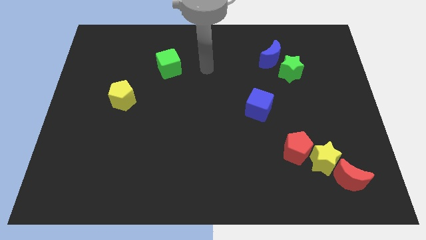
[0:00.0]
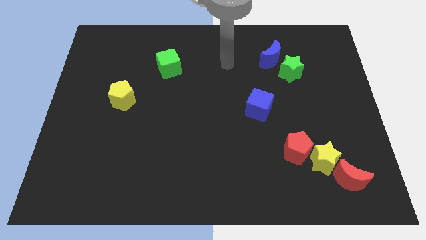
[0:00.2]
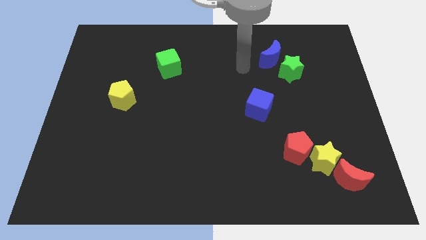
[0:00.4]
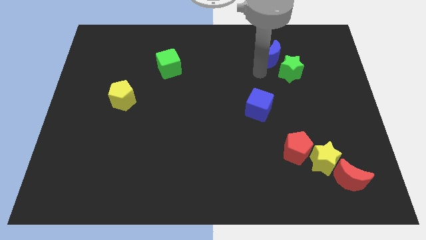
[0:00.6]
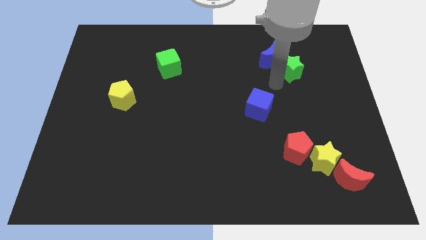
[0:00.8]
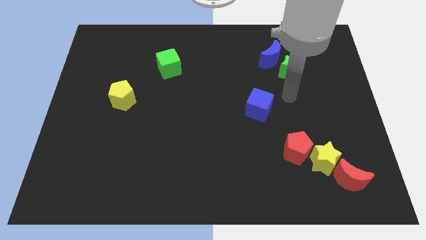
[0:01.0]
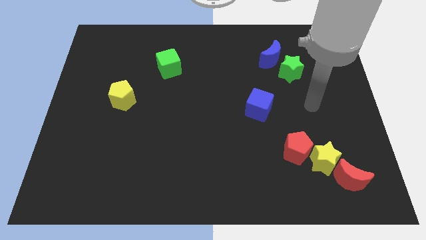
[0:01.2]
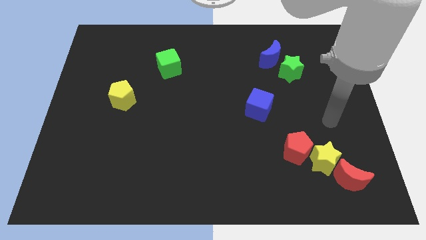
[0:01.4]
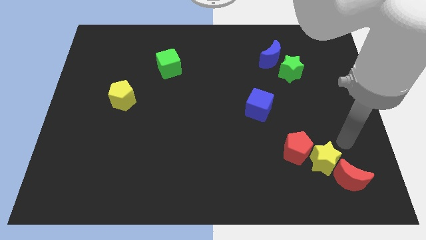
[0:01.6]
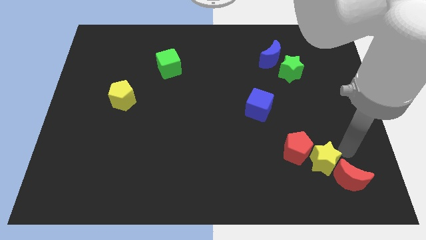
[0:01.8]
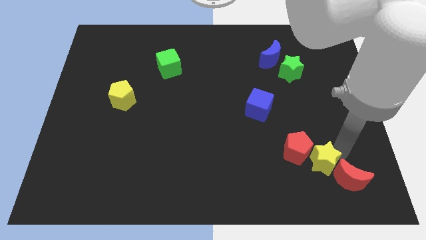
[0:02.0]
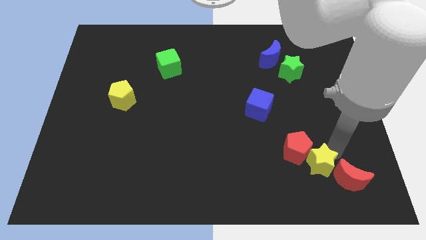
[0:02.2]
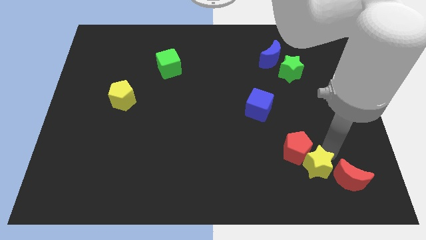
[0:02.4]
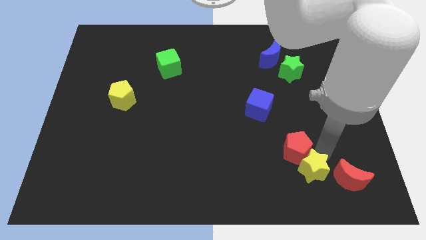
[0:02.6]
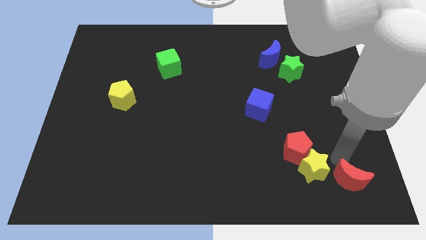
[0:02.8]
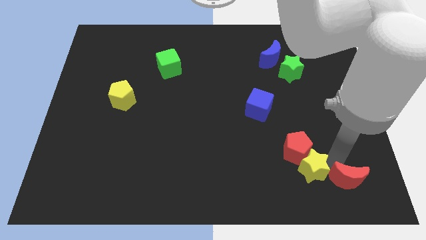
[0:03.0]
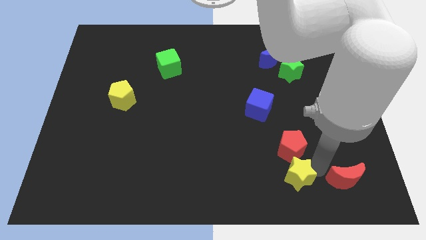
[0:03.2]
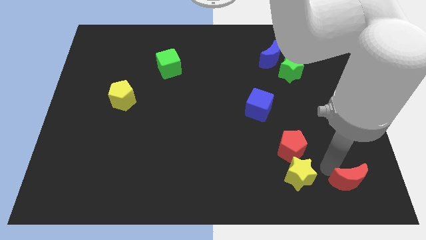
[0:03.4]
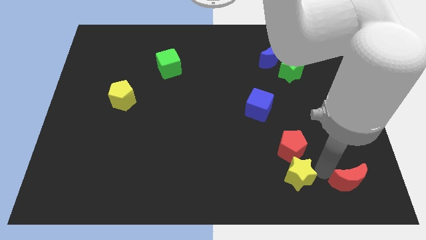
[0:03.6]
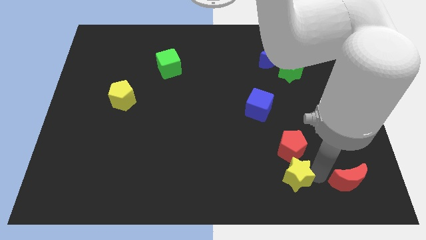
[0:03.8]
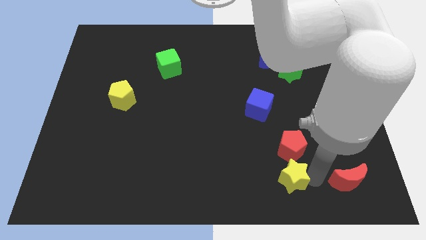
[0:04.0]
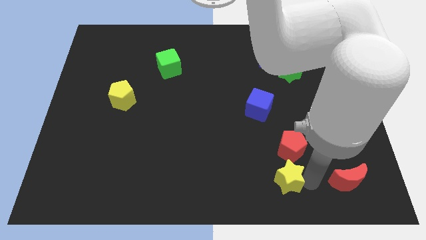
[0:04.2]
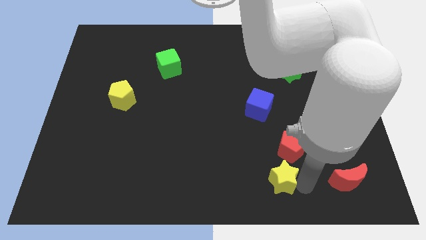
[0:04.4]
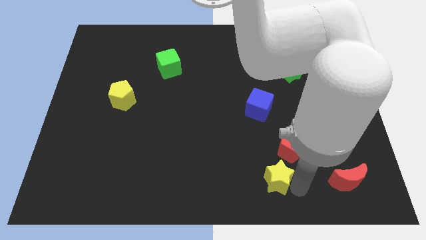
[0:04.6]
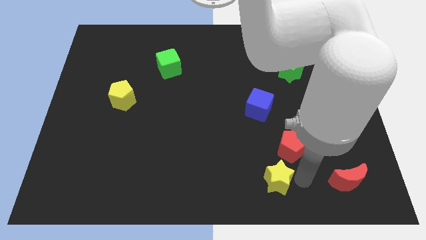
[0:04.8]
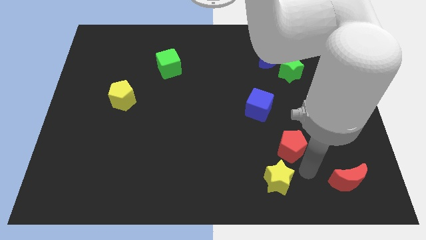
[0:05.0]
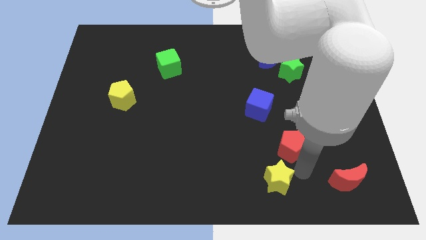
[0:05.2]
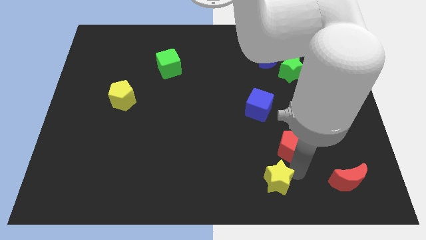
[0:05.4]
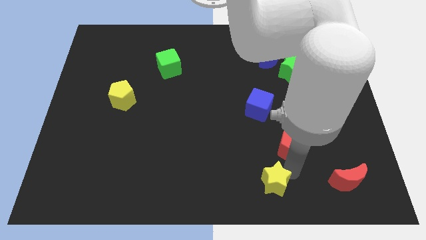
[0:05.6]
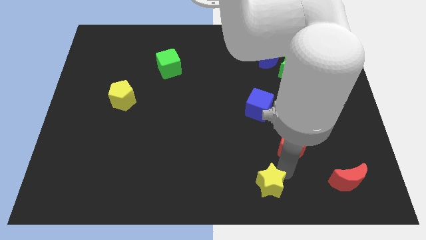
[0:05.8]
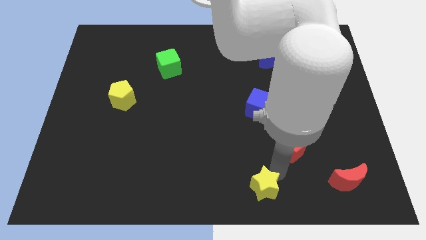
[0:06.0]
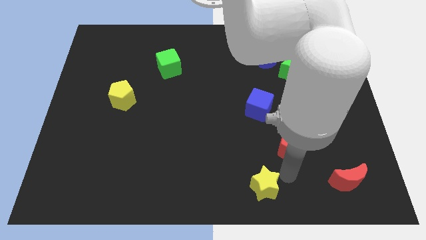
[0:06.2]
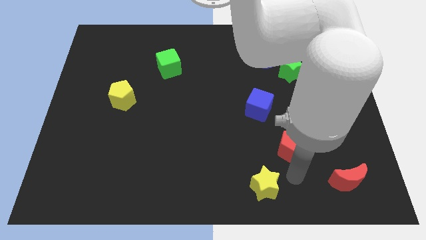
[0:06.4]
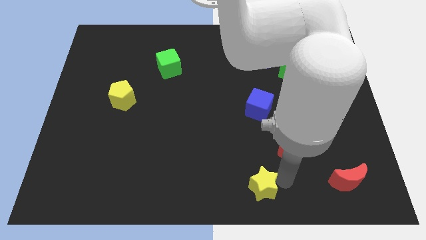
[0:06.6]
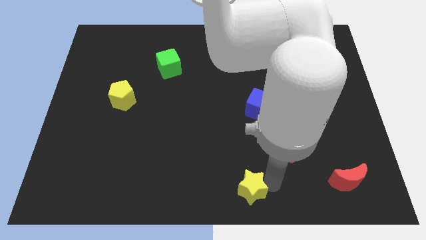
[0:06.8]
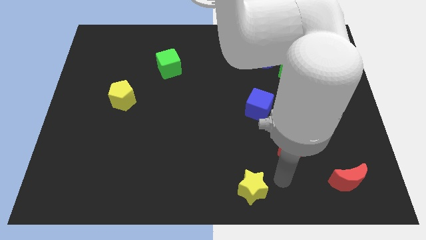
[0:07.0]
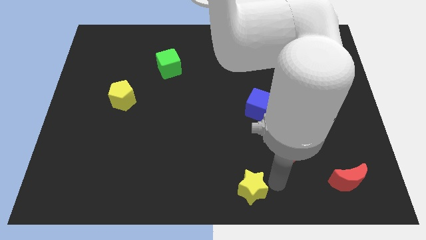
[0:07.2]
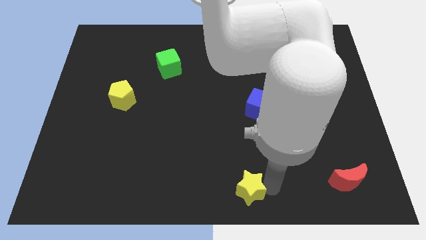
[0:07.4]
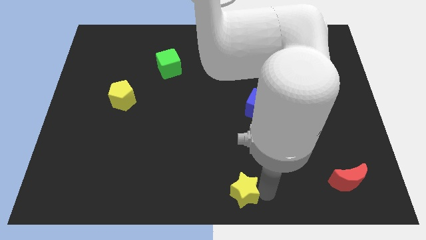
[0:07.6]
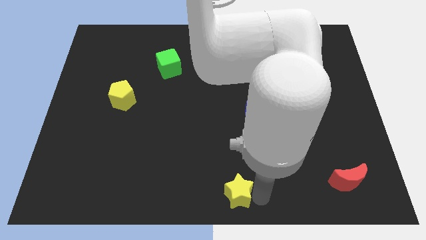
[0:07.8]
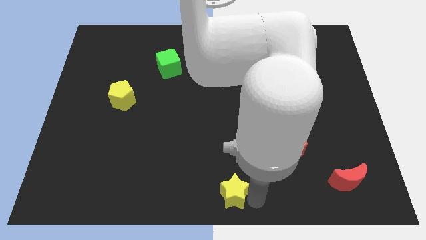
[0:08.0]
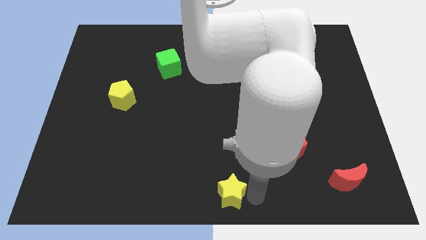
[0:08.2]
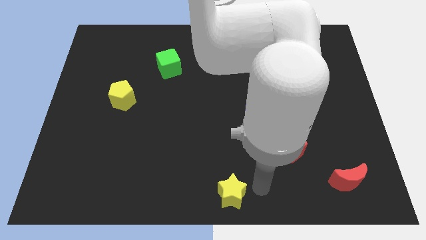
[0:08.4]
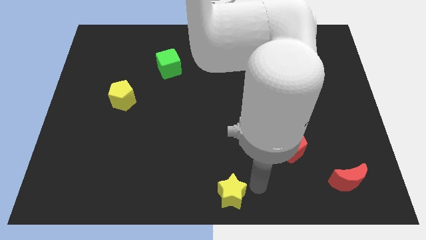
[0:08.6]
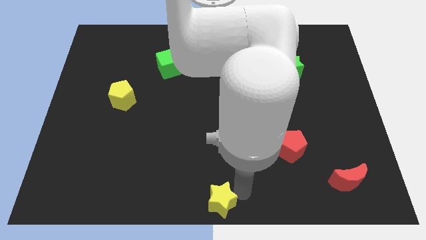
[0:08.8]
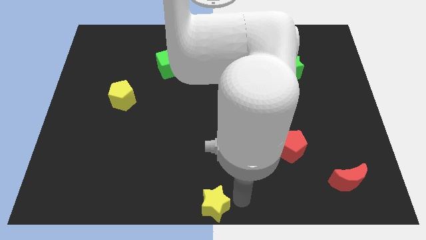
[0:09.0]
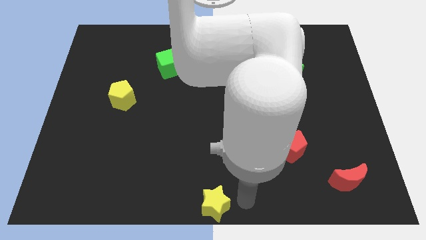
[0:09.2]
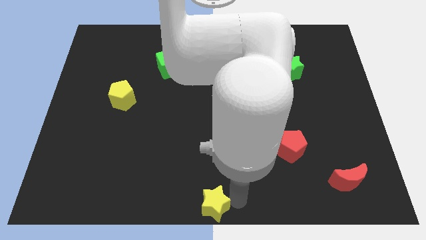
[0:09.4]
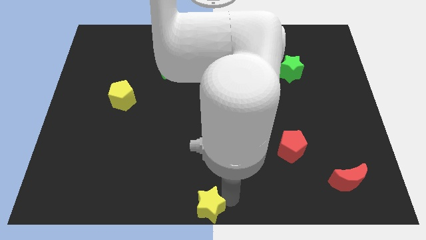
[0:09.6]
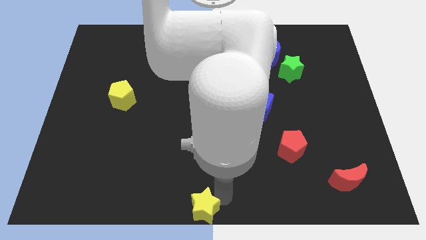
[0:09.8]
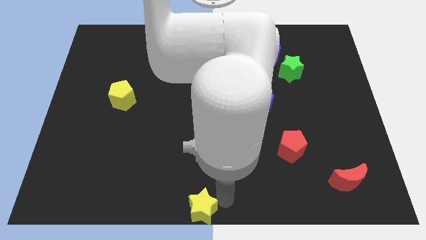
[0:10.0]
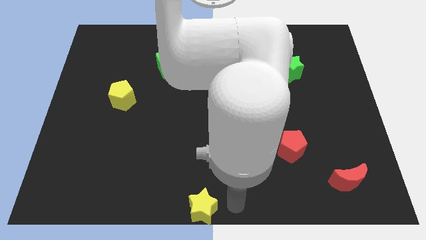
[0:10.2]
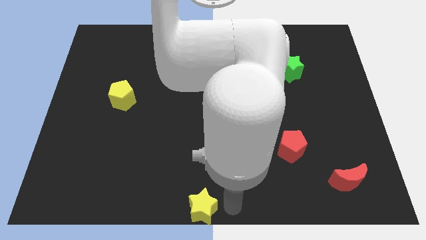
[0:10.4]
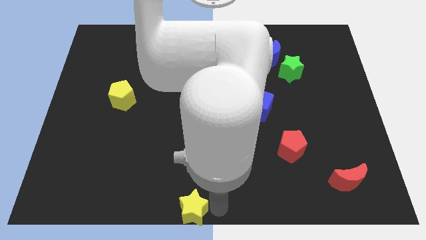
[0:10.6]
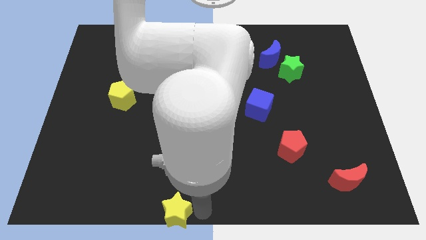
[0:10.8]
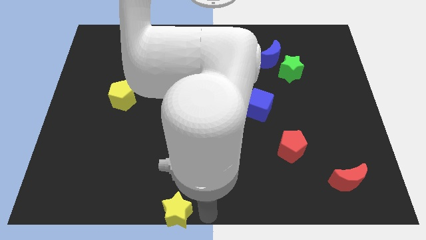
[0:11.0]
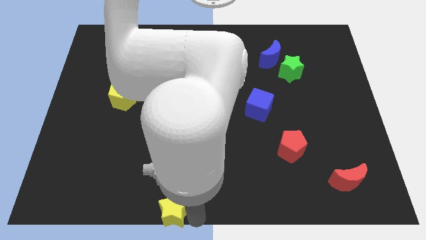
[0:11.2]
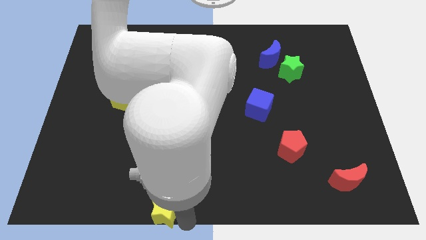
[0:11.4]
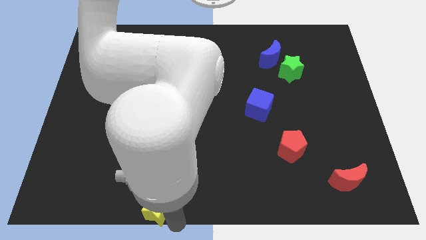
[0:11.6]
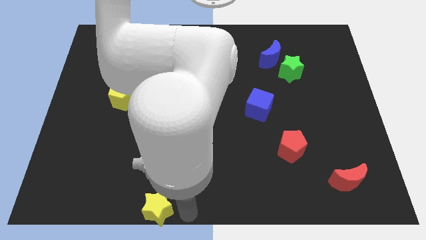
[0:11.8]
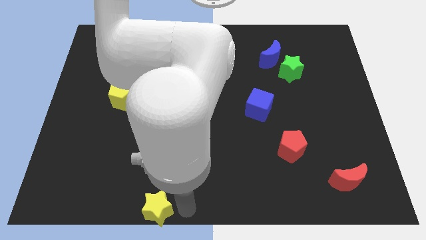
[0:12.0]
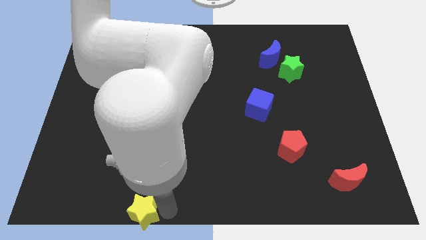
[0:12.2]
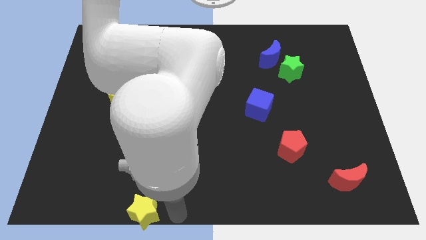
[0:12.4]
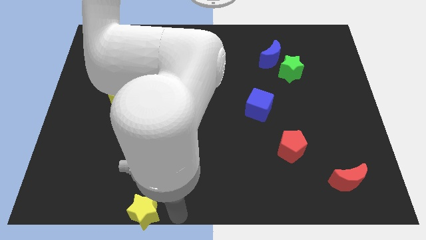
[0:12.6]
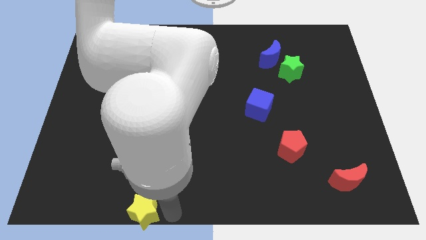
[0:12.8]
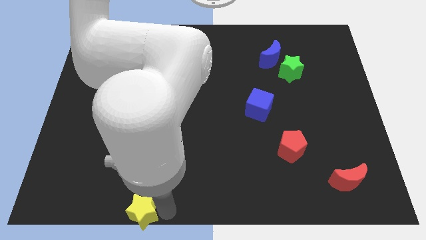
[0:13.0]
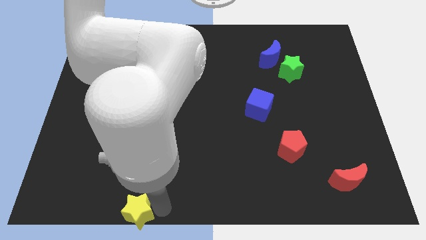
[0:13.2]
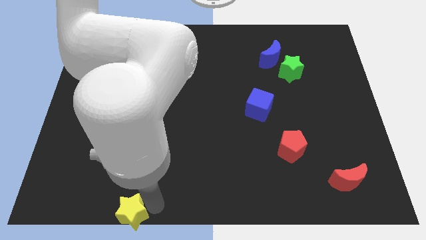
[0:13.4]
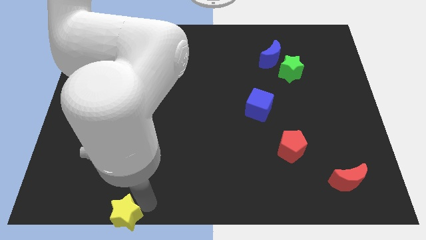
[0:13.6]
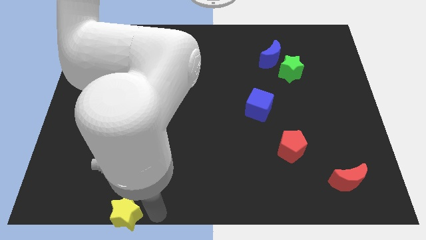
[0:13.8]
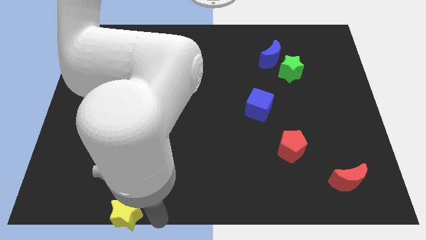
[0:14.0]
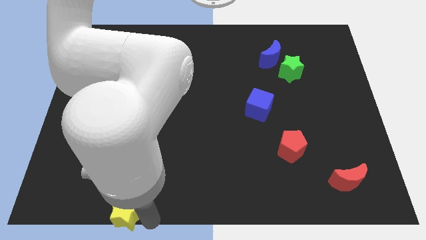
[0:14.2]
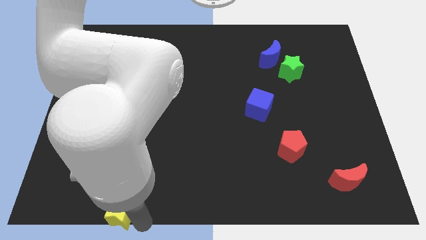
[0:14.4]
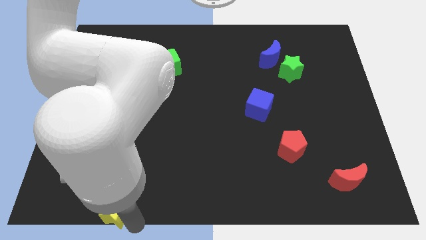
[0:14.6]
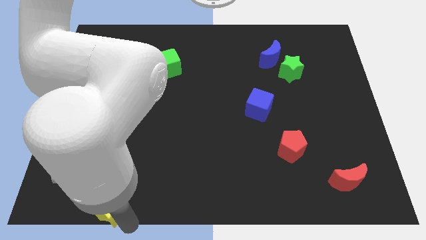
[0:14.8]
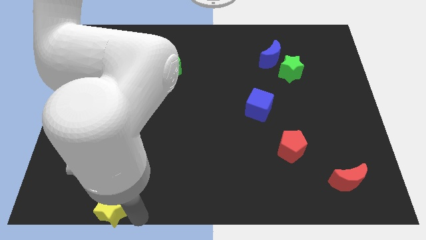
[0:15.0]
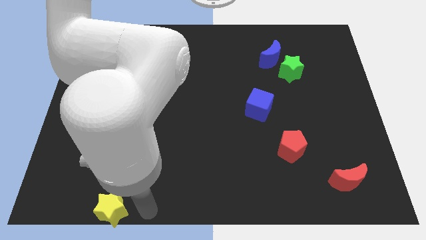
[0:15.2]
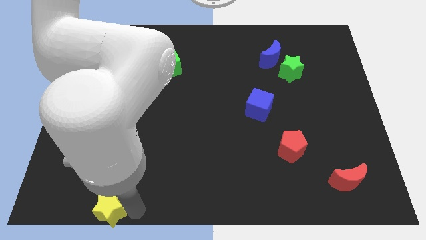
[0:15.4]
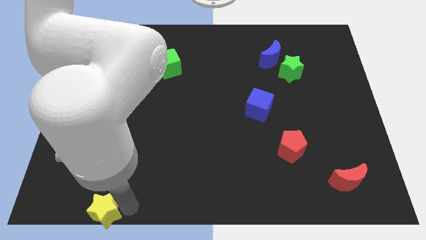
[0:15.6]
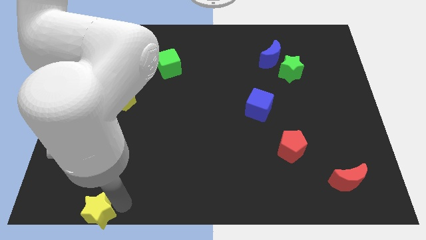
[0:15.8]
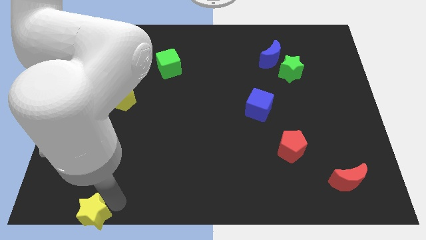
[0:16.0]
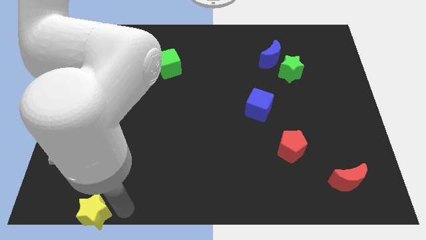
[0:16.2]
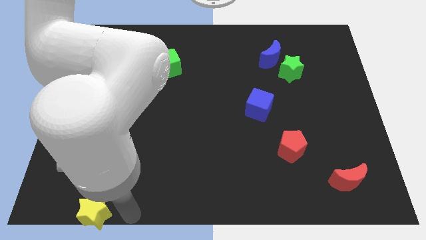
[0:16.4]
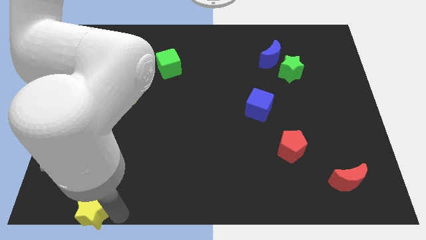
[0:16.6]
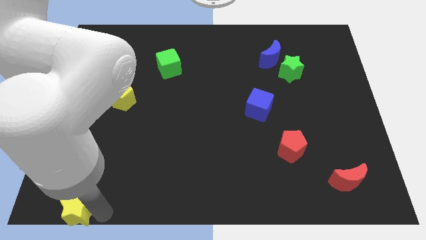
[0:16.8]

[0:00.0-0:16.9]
put the yellow star to the bottom left corner

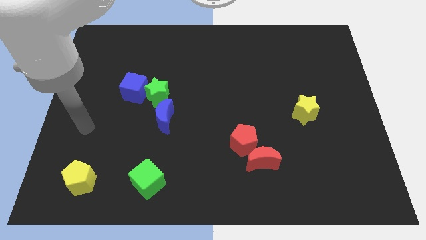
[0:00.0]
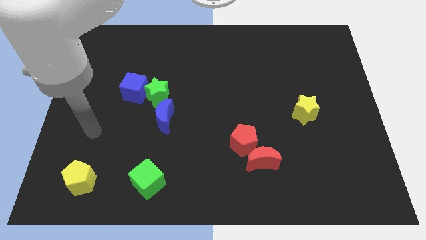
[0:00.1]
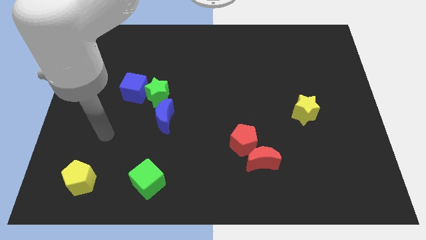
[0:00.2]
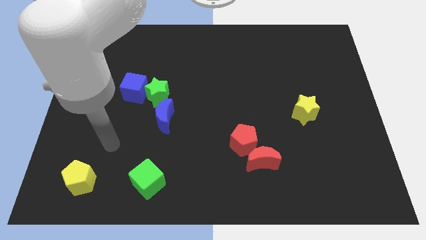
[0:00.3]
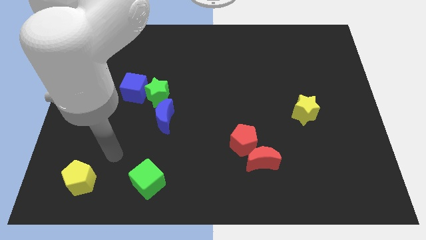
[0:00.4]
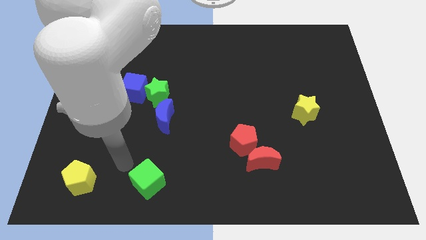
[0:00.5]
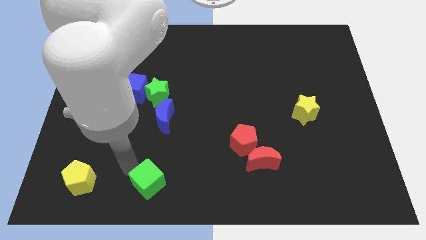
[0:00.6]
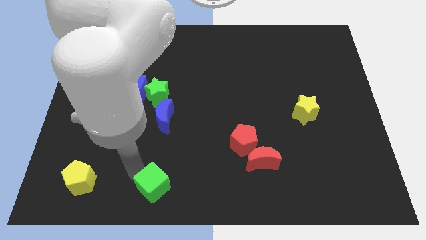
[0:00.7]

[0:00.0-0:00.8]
push the green cube to the bottom
